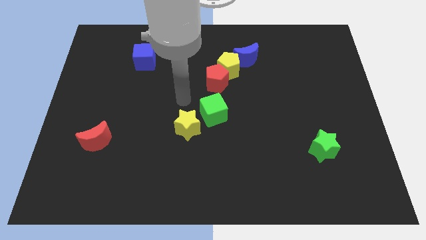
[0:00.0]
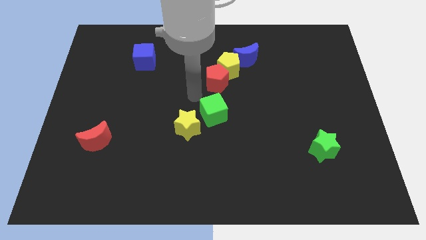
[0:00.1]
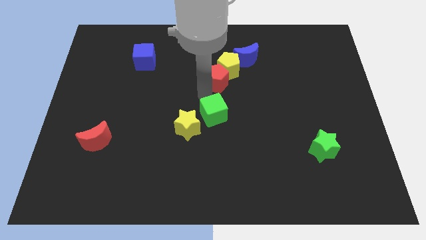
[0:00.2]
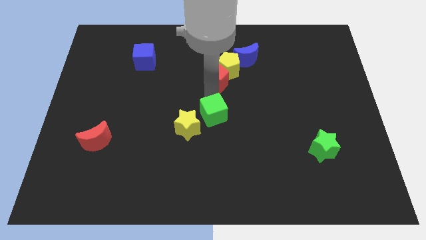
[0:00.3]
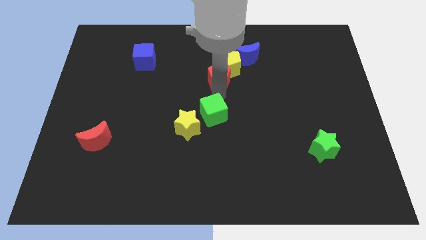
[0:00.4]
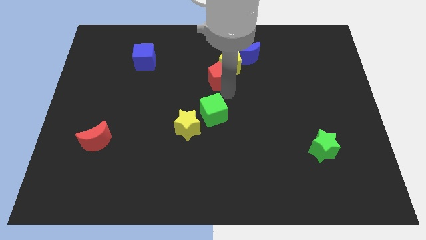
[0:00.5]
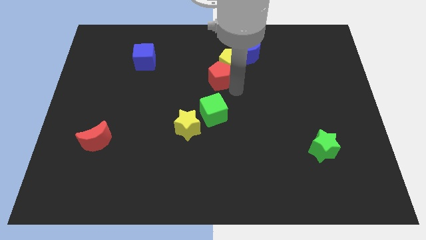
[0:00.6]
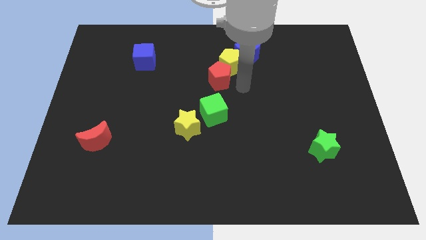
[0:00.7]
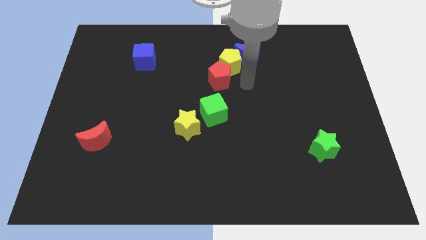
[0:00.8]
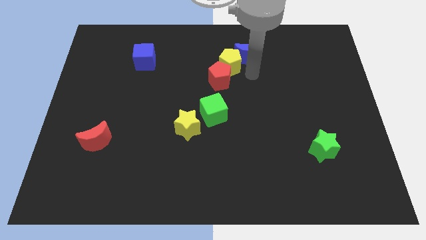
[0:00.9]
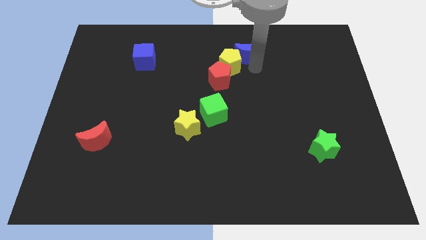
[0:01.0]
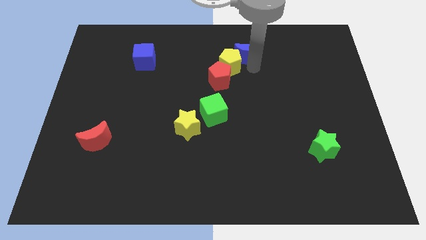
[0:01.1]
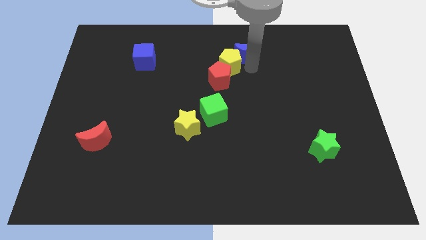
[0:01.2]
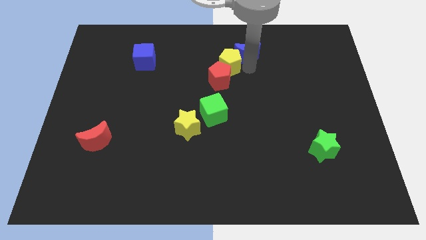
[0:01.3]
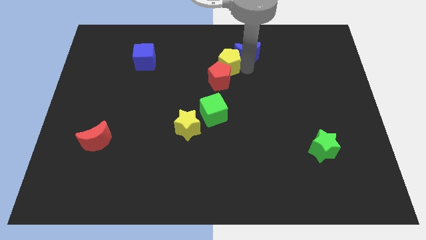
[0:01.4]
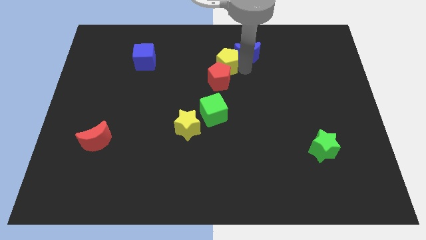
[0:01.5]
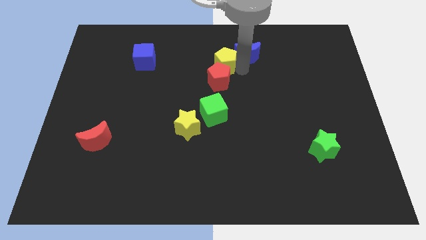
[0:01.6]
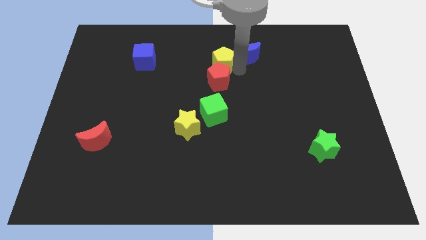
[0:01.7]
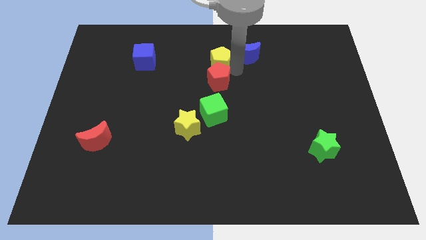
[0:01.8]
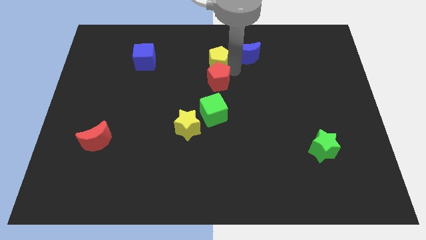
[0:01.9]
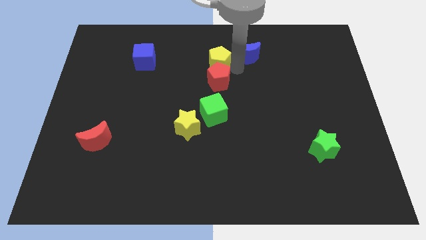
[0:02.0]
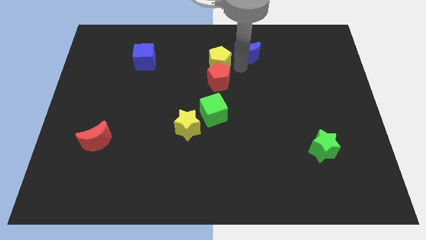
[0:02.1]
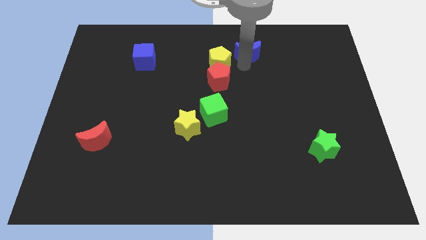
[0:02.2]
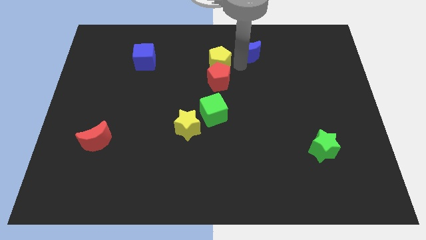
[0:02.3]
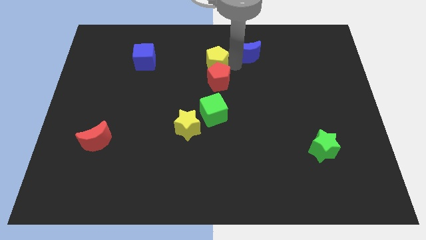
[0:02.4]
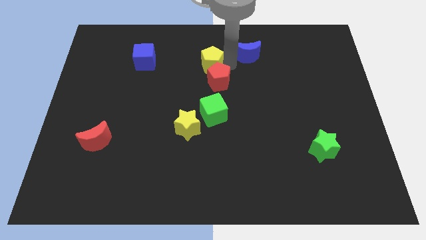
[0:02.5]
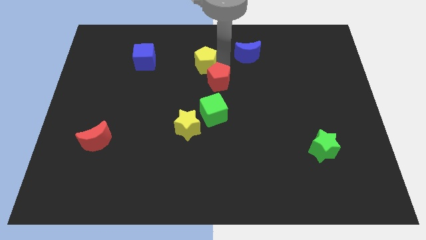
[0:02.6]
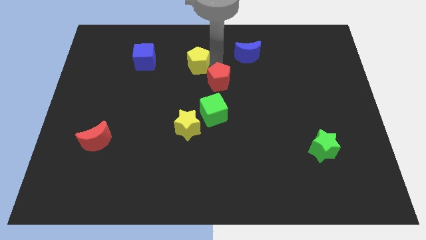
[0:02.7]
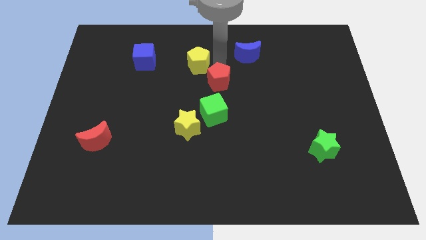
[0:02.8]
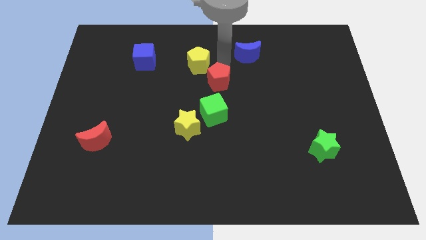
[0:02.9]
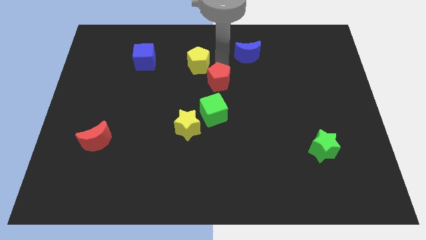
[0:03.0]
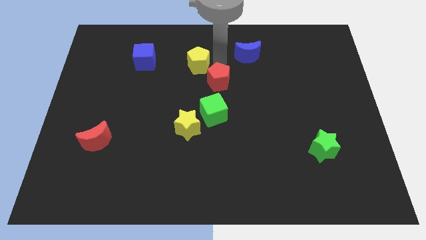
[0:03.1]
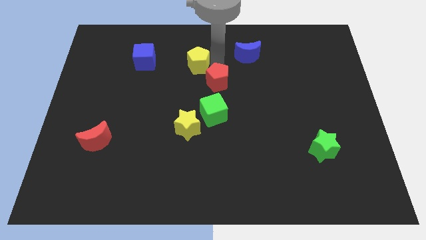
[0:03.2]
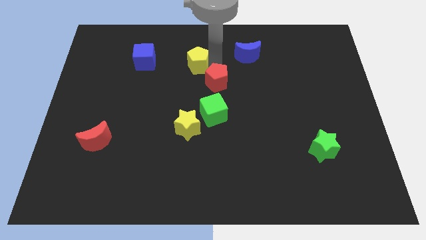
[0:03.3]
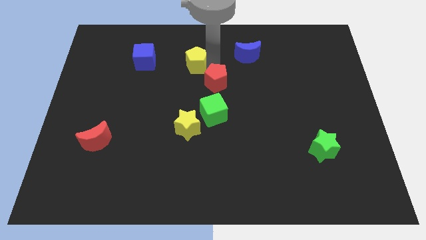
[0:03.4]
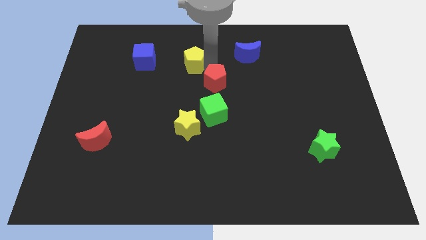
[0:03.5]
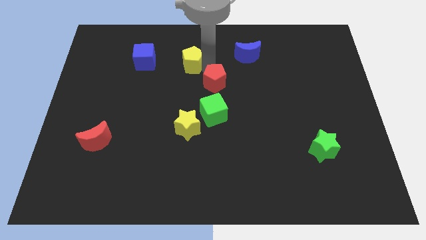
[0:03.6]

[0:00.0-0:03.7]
pull the yellow pentagon apart from the red pentagon and blue moon

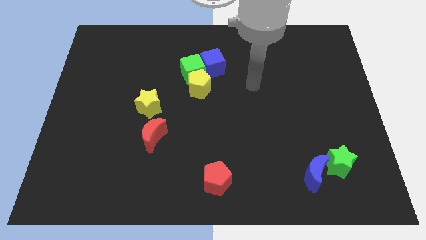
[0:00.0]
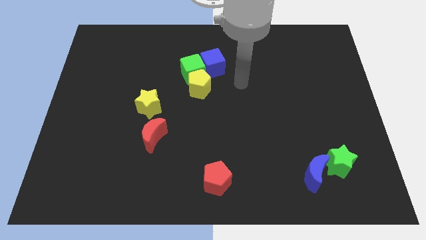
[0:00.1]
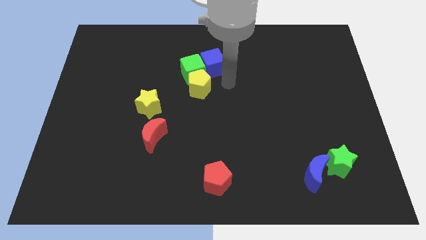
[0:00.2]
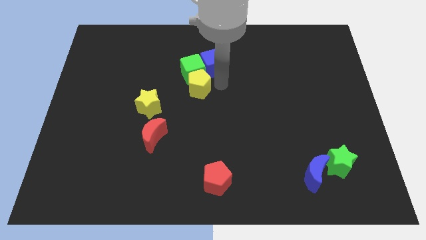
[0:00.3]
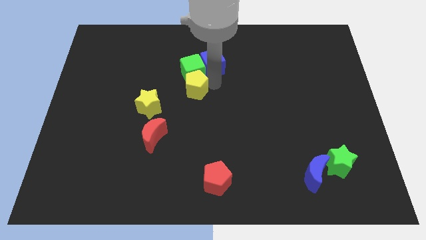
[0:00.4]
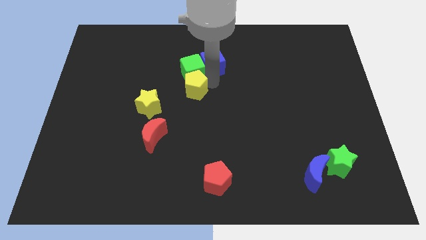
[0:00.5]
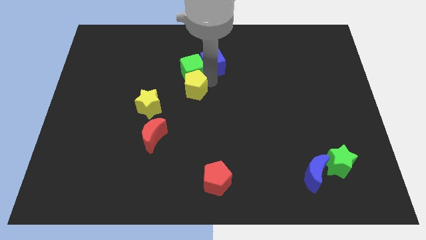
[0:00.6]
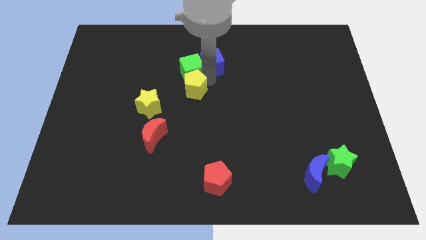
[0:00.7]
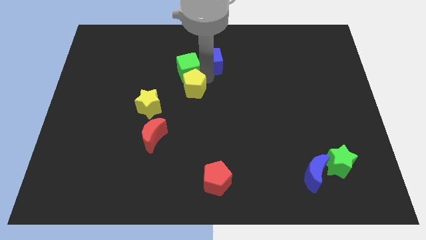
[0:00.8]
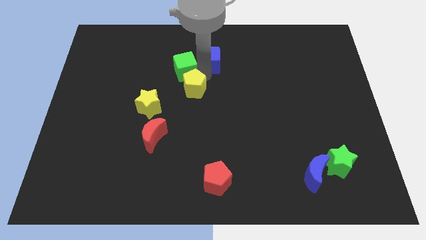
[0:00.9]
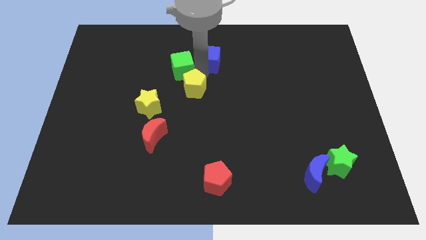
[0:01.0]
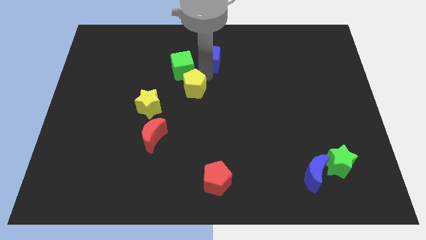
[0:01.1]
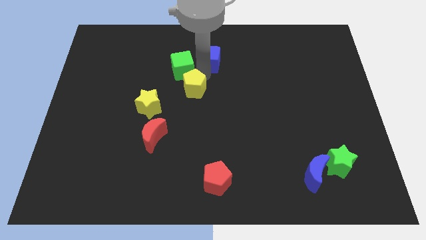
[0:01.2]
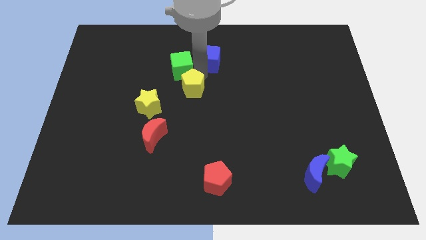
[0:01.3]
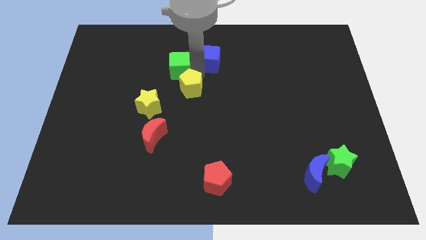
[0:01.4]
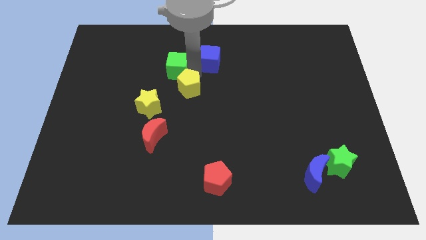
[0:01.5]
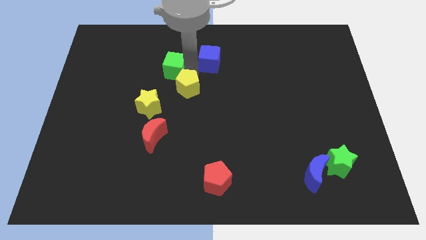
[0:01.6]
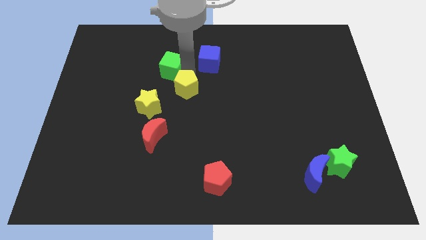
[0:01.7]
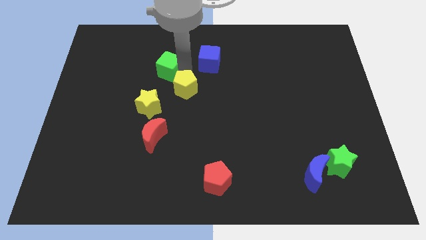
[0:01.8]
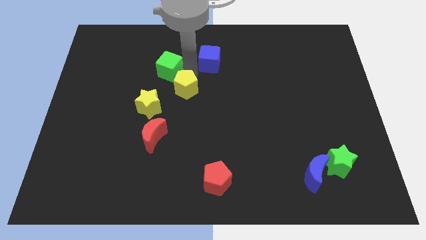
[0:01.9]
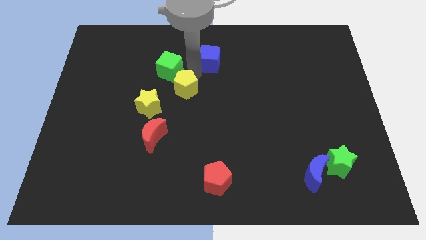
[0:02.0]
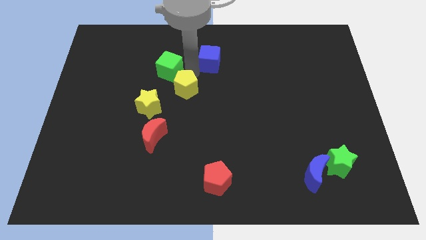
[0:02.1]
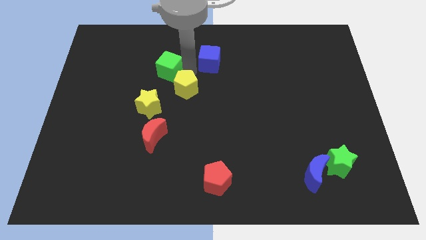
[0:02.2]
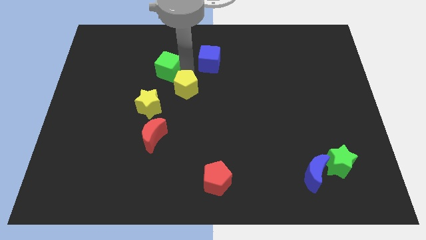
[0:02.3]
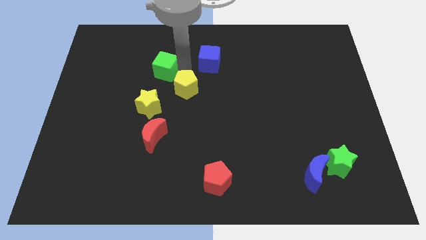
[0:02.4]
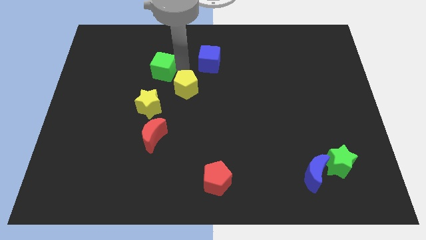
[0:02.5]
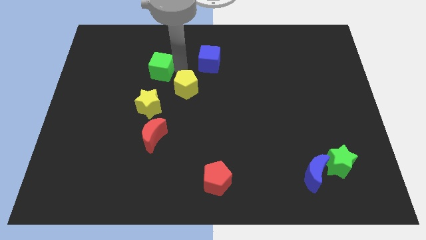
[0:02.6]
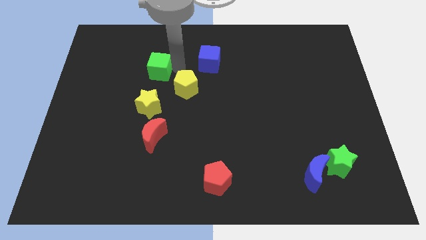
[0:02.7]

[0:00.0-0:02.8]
move the green cube away from the yellow pentagon and blue cube

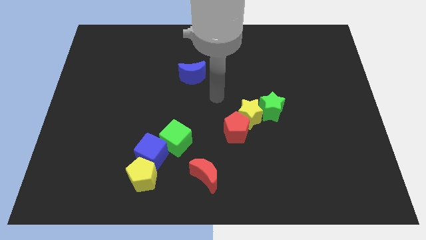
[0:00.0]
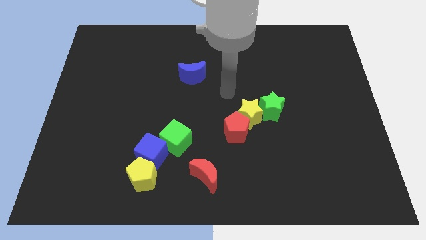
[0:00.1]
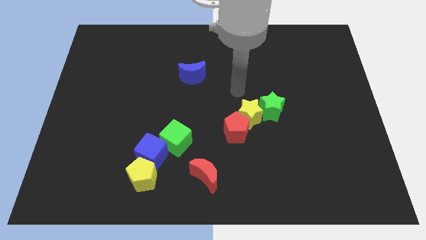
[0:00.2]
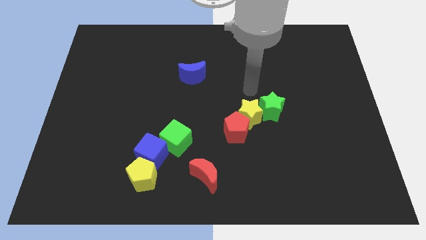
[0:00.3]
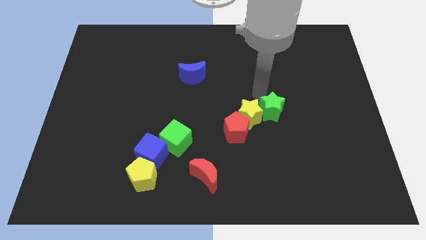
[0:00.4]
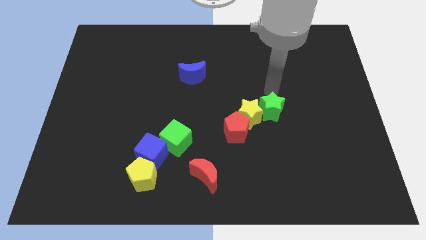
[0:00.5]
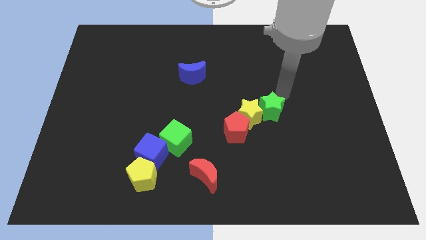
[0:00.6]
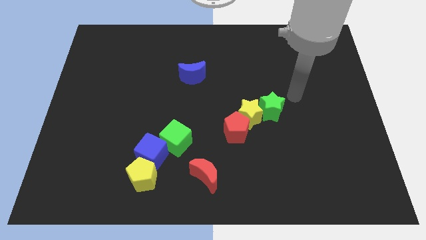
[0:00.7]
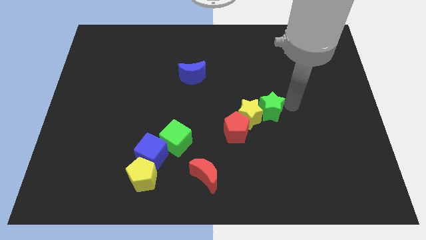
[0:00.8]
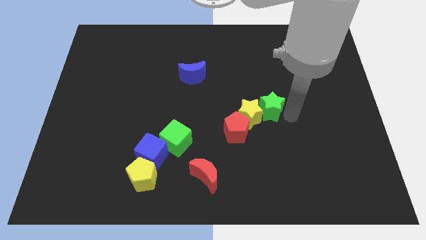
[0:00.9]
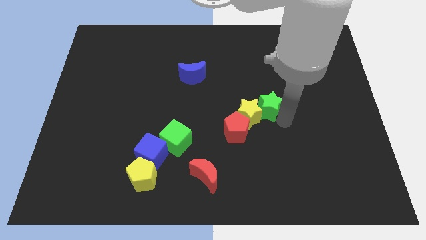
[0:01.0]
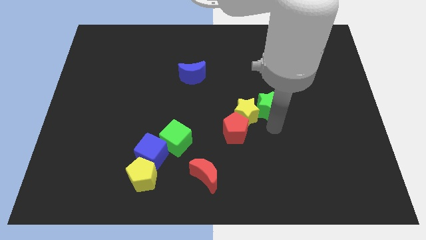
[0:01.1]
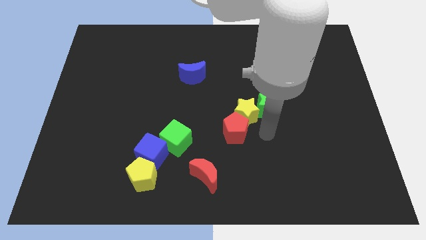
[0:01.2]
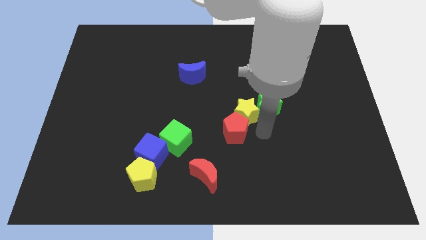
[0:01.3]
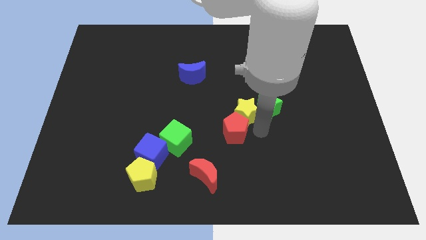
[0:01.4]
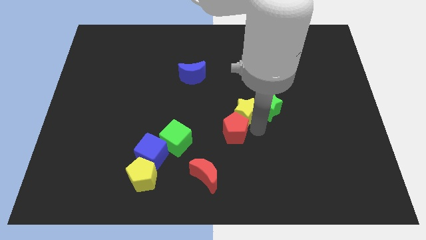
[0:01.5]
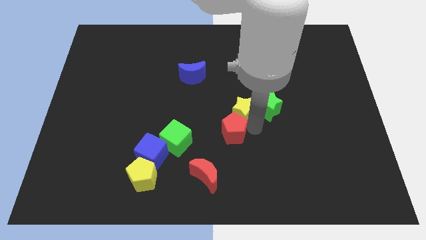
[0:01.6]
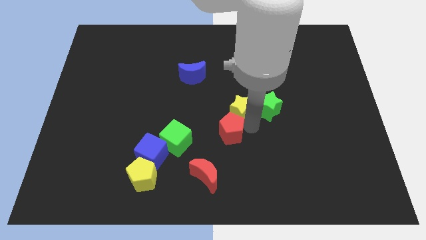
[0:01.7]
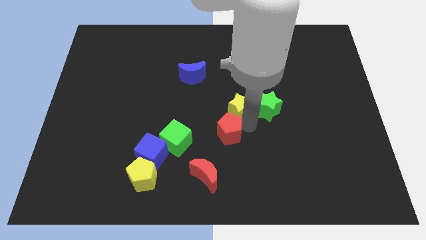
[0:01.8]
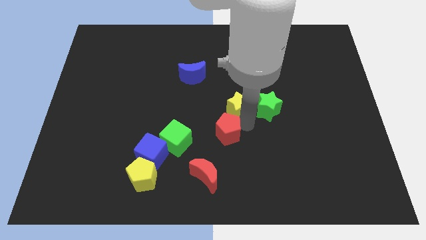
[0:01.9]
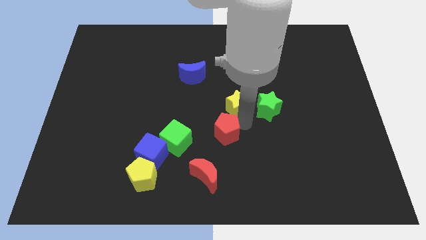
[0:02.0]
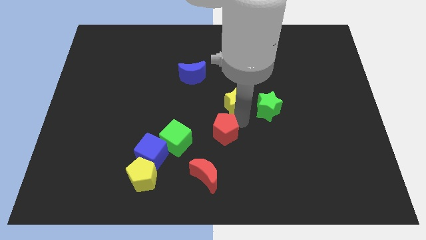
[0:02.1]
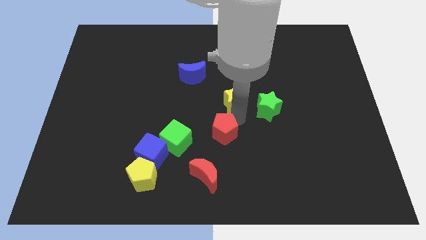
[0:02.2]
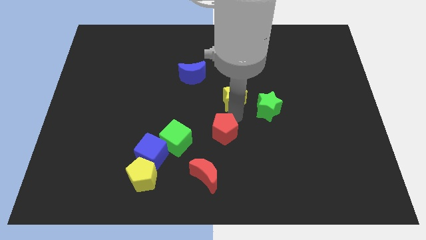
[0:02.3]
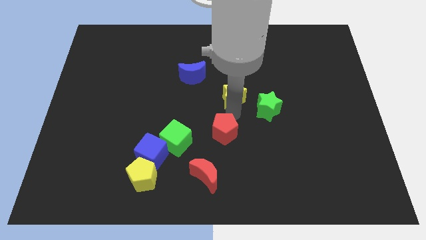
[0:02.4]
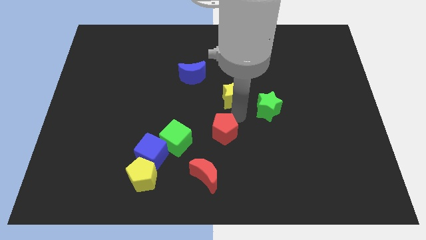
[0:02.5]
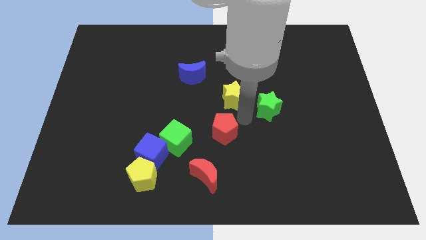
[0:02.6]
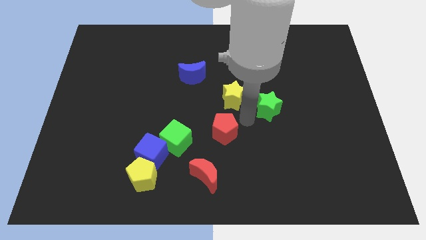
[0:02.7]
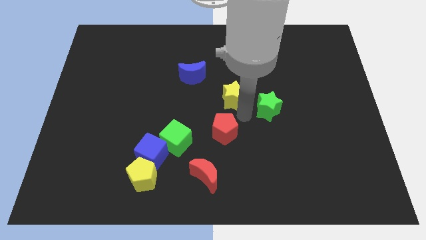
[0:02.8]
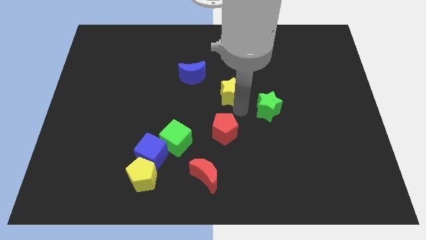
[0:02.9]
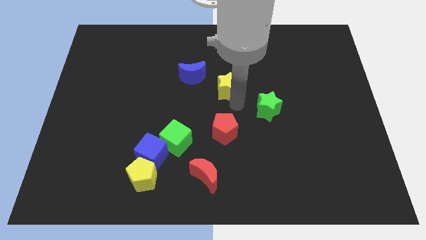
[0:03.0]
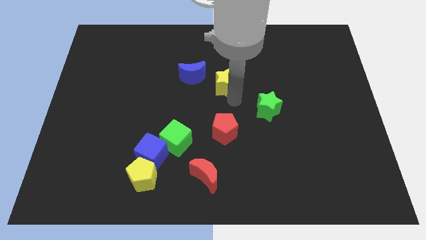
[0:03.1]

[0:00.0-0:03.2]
pull the yellow star apart from the red pentagon and green star
